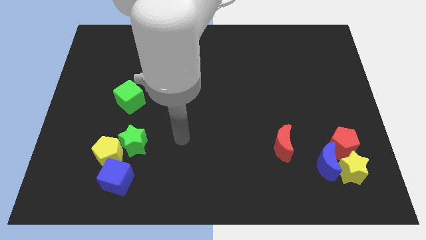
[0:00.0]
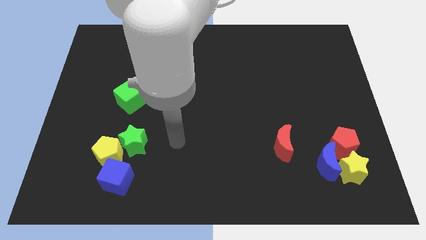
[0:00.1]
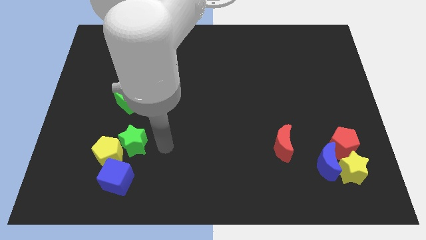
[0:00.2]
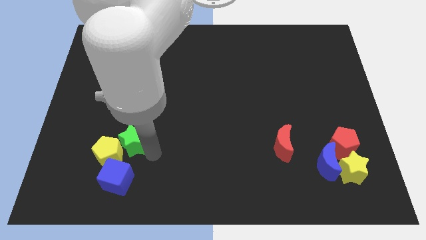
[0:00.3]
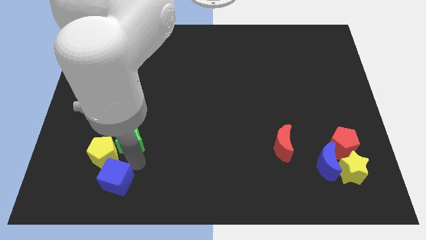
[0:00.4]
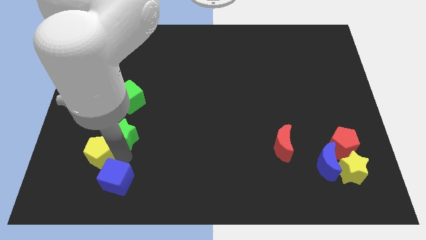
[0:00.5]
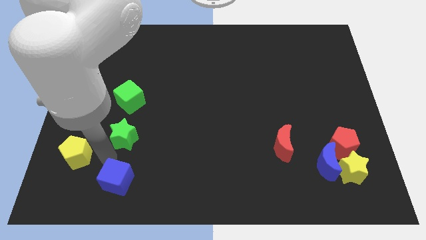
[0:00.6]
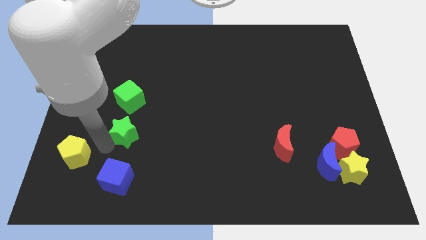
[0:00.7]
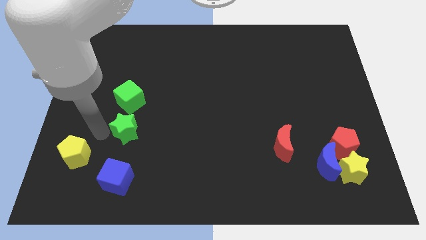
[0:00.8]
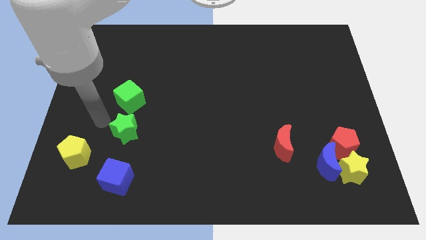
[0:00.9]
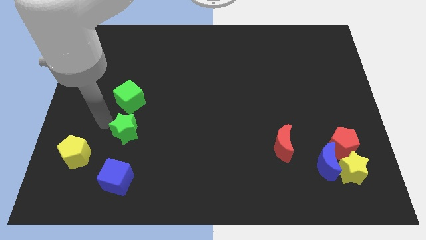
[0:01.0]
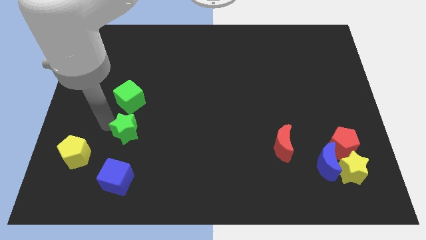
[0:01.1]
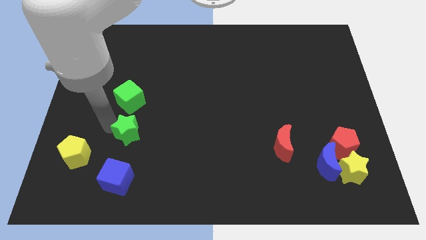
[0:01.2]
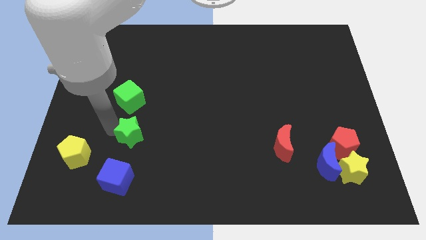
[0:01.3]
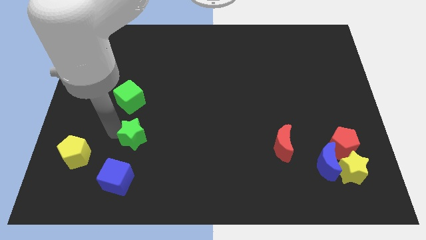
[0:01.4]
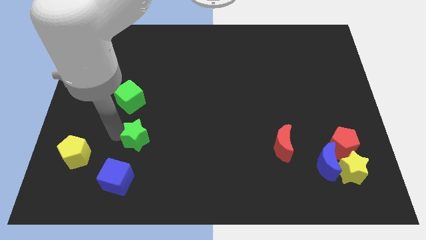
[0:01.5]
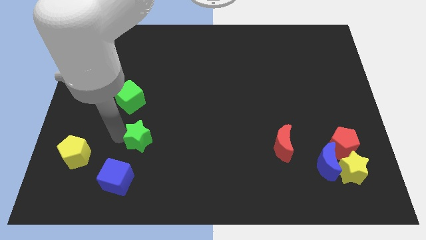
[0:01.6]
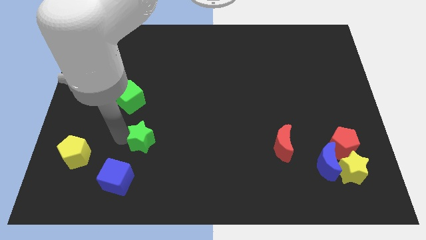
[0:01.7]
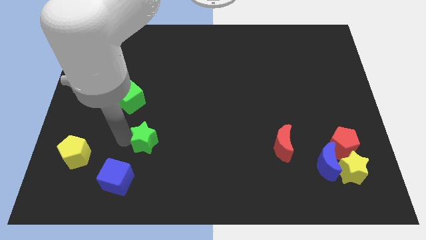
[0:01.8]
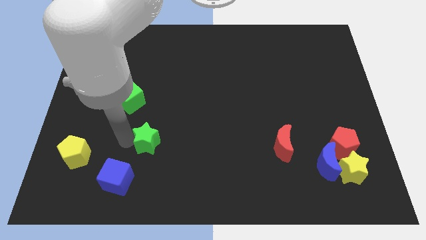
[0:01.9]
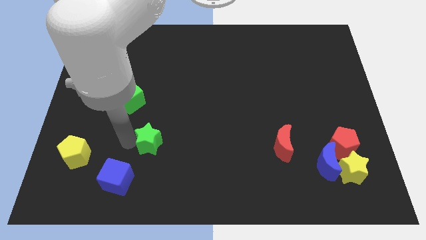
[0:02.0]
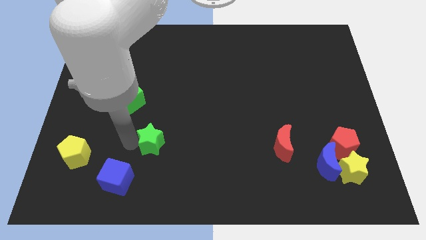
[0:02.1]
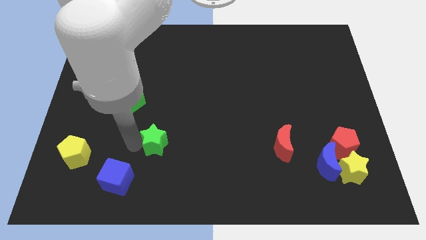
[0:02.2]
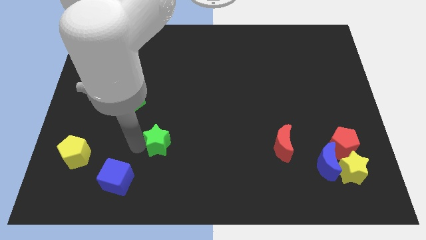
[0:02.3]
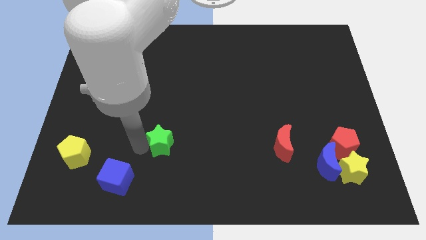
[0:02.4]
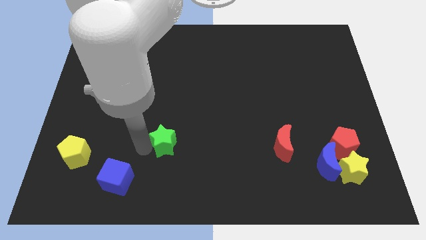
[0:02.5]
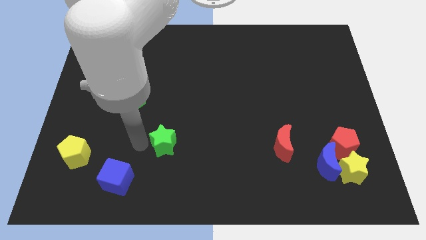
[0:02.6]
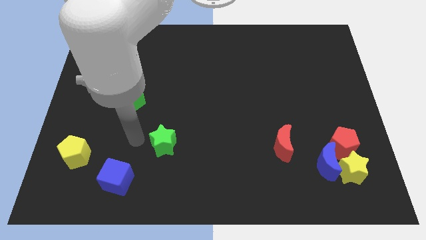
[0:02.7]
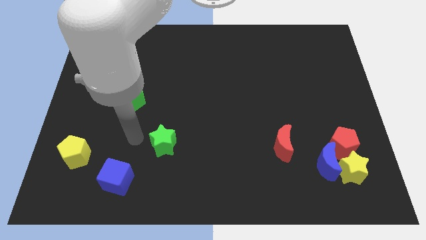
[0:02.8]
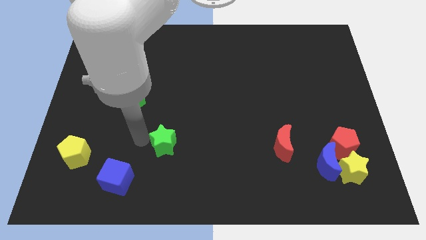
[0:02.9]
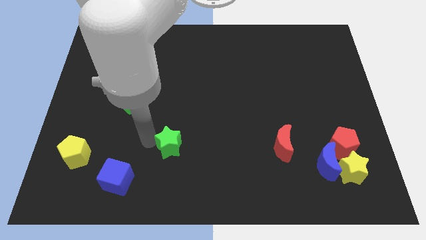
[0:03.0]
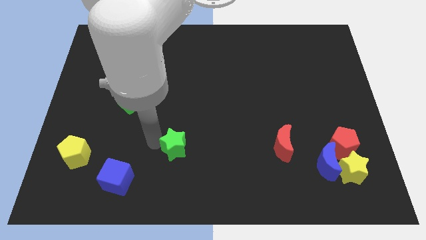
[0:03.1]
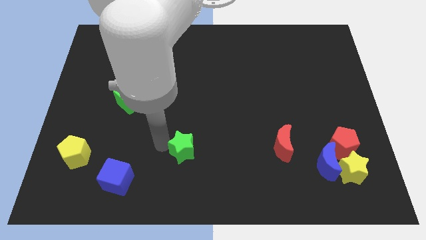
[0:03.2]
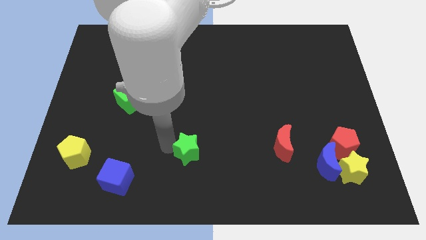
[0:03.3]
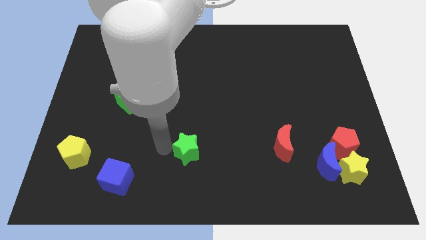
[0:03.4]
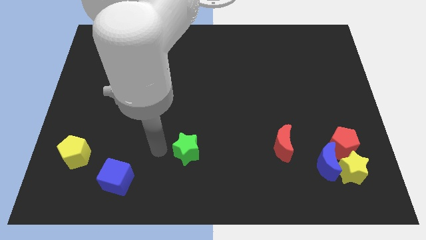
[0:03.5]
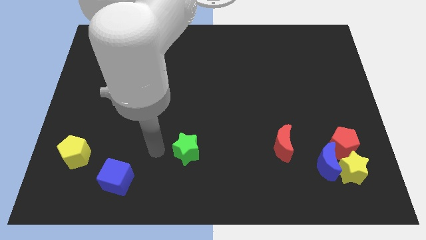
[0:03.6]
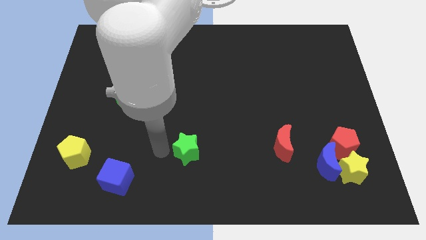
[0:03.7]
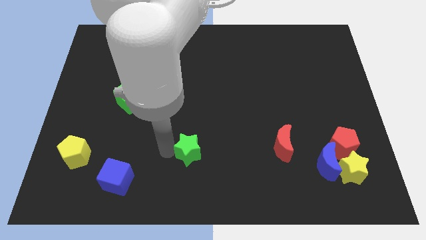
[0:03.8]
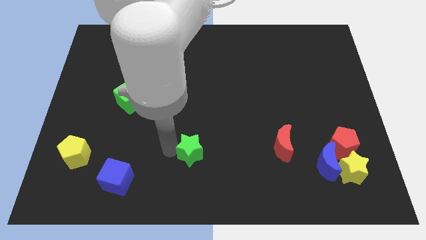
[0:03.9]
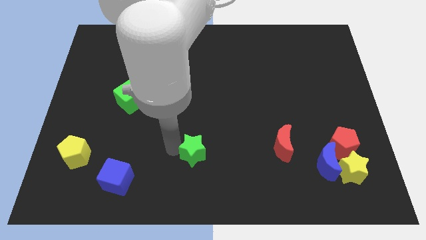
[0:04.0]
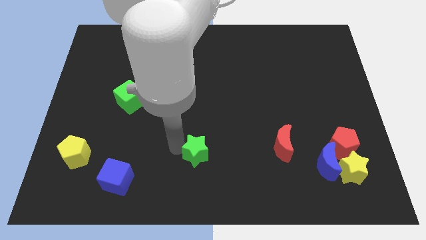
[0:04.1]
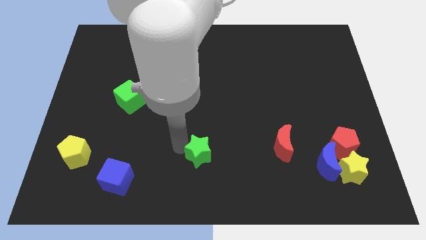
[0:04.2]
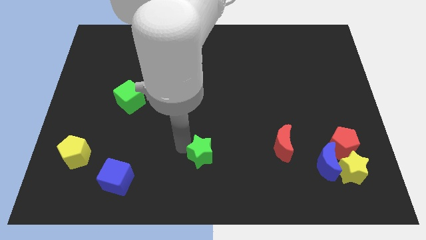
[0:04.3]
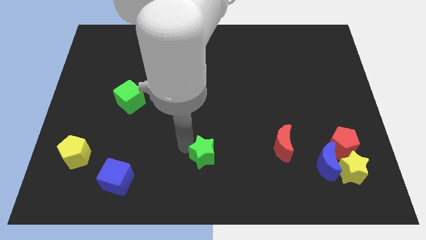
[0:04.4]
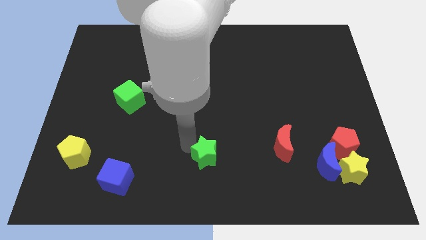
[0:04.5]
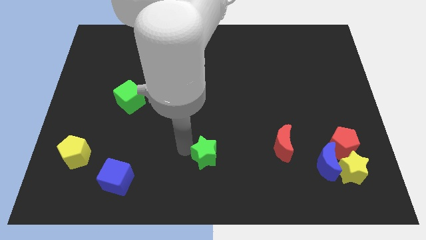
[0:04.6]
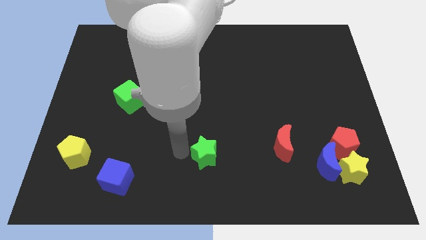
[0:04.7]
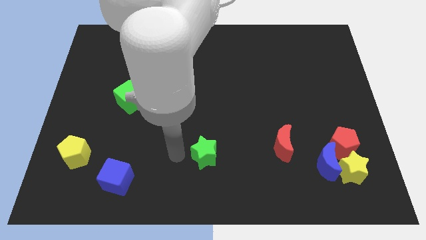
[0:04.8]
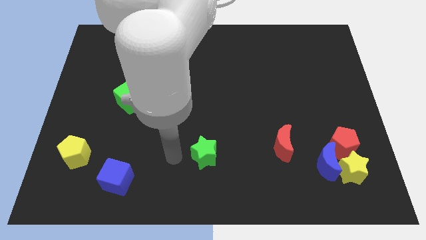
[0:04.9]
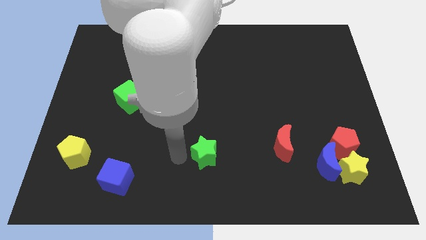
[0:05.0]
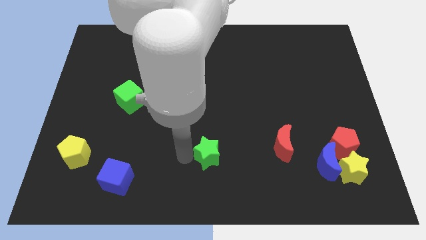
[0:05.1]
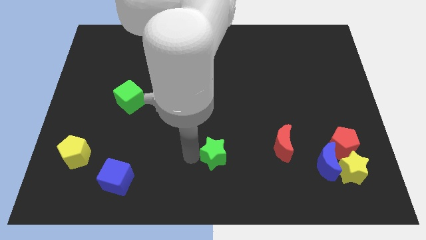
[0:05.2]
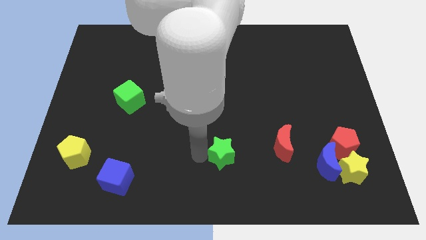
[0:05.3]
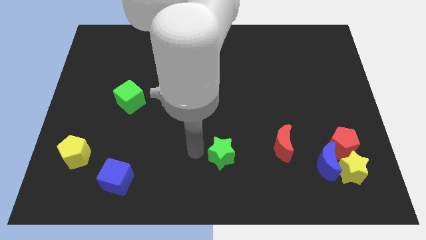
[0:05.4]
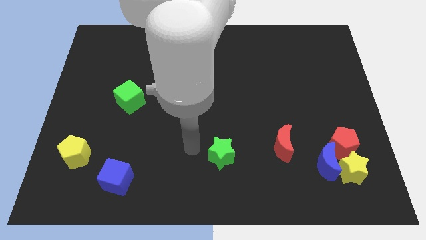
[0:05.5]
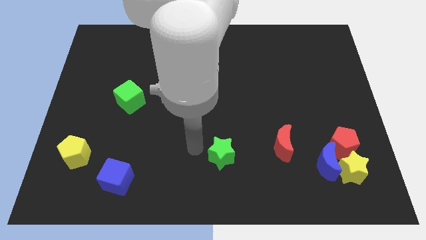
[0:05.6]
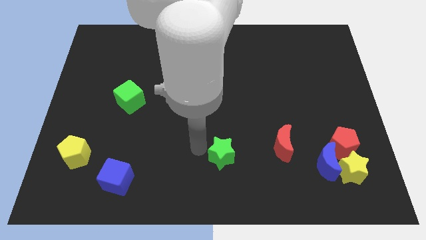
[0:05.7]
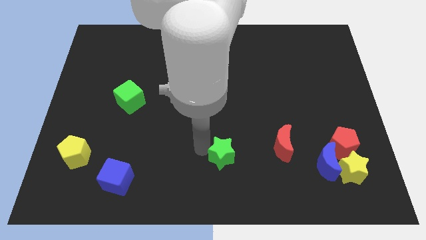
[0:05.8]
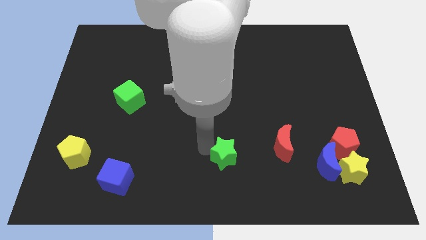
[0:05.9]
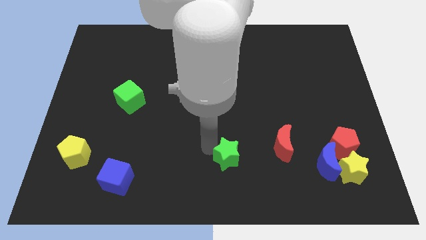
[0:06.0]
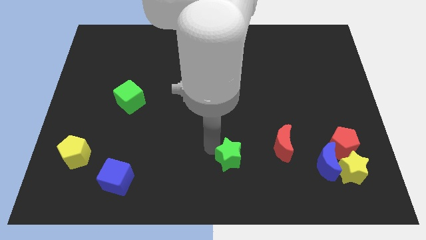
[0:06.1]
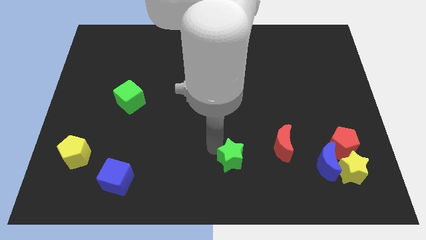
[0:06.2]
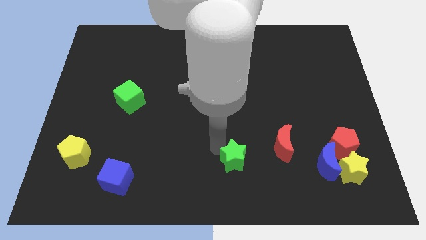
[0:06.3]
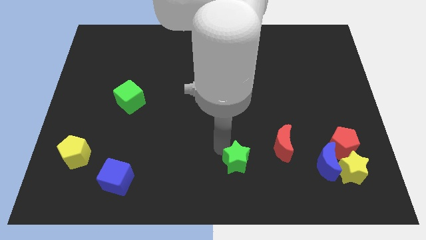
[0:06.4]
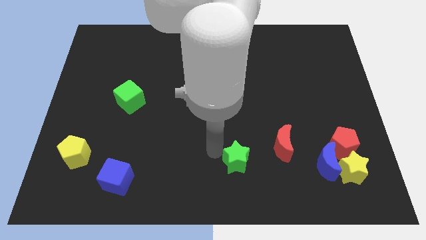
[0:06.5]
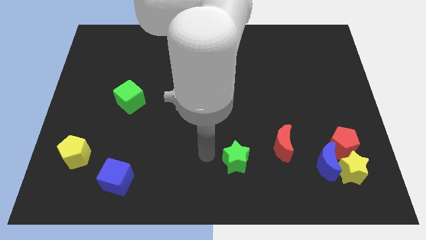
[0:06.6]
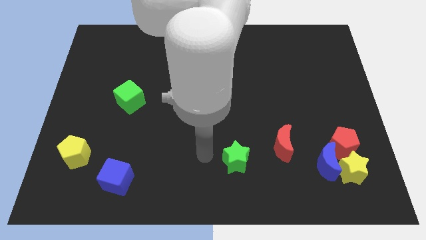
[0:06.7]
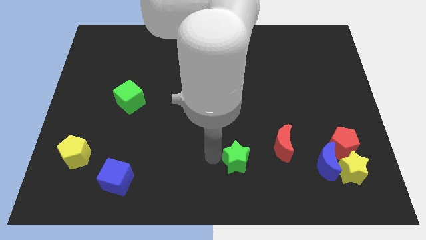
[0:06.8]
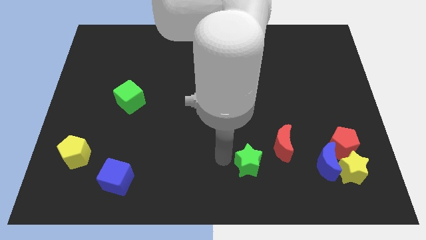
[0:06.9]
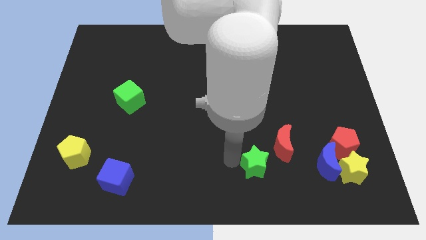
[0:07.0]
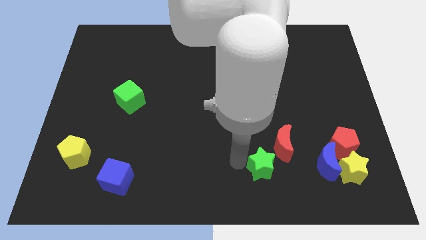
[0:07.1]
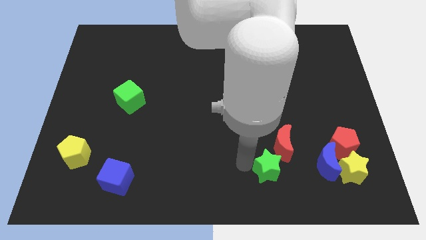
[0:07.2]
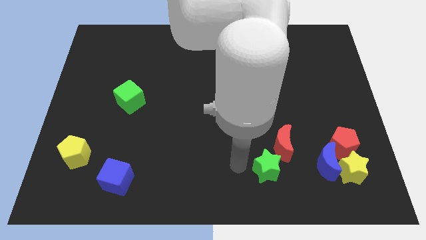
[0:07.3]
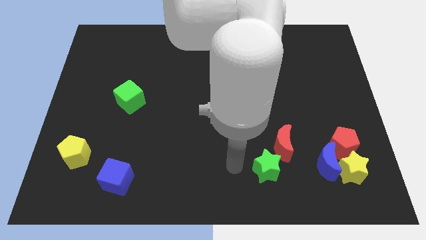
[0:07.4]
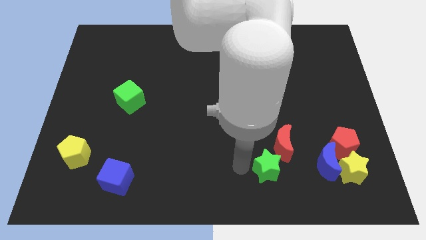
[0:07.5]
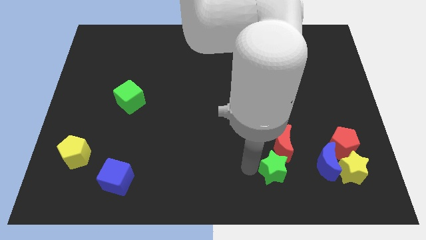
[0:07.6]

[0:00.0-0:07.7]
put the green star to the left of the yellow star

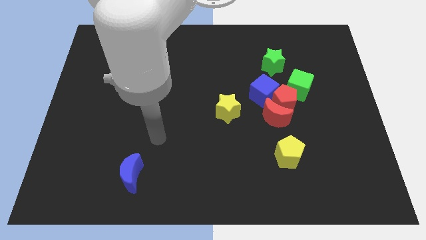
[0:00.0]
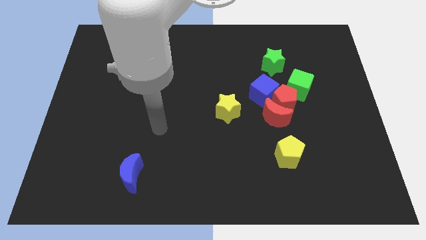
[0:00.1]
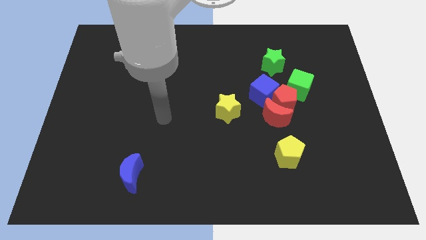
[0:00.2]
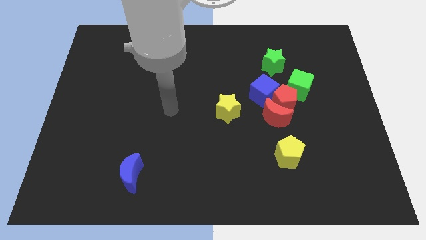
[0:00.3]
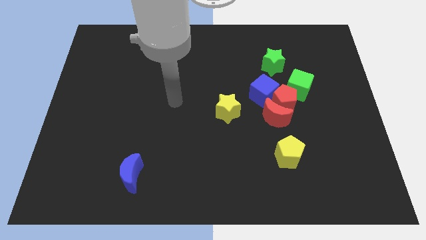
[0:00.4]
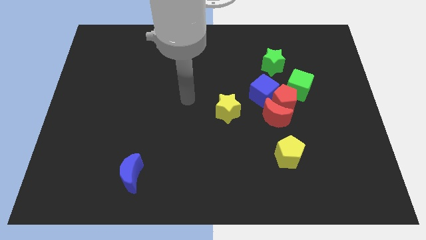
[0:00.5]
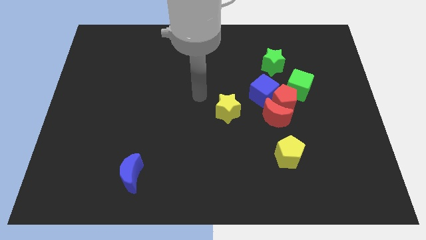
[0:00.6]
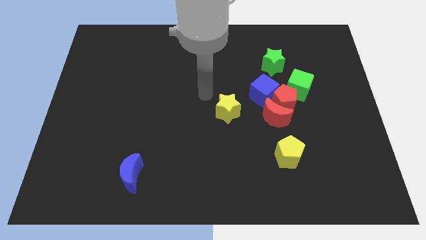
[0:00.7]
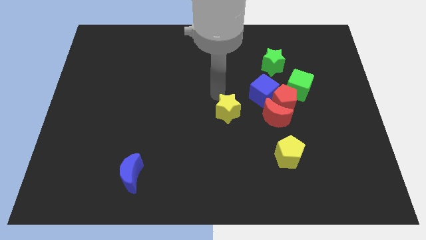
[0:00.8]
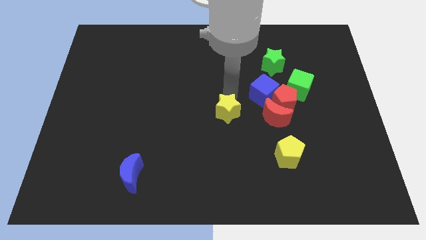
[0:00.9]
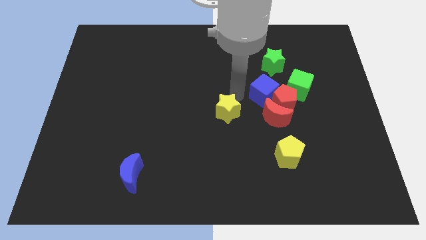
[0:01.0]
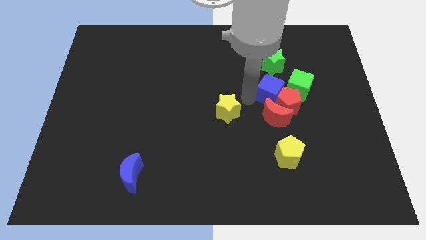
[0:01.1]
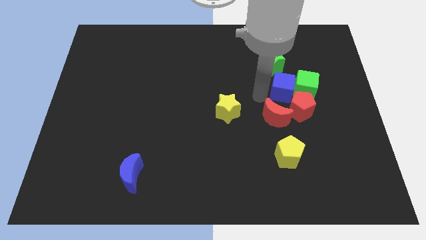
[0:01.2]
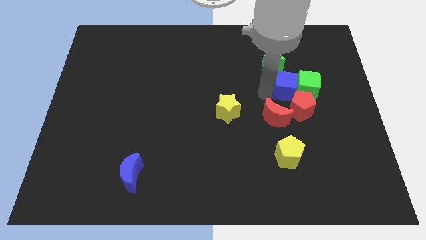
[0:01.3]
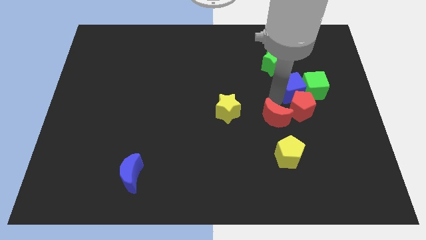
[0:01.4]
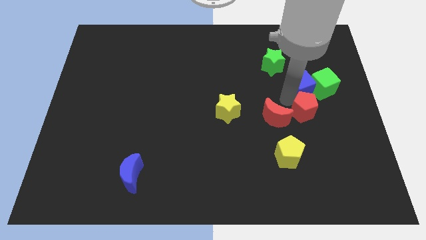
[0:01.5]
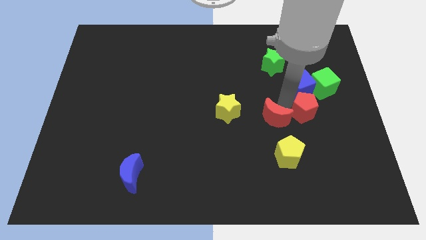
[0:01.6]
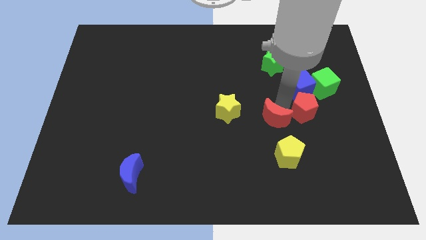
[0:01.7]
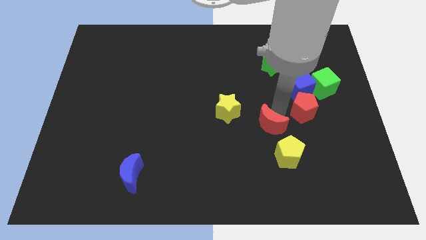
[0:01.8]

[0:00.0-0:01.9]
push the red moon diagonally up and to the left of the yellow pentagon
